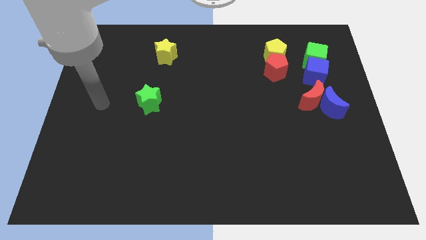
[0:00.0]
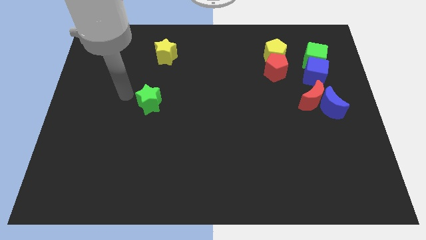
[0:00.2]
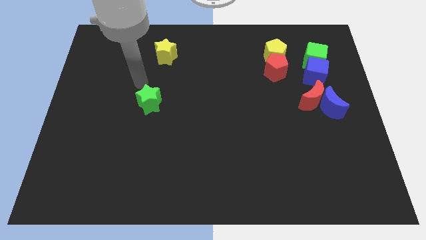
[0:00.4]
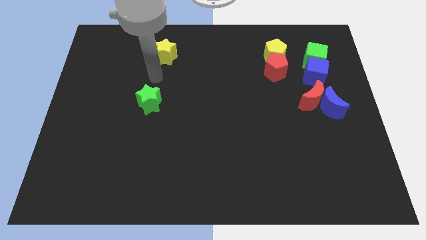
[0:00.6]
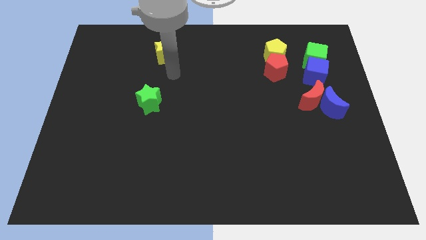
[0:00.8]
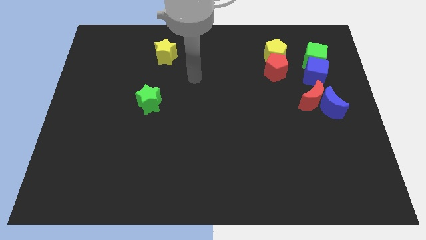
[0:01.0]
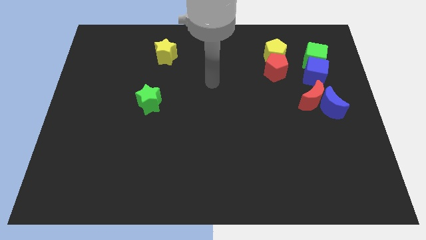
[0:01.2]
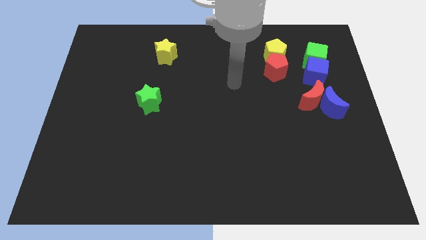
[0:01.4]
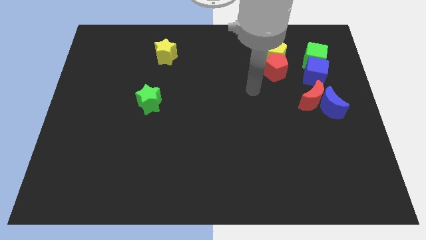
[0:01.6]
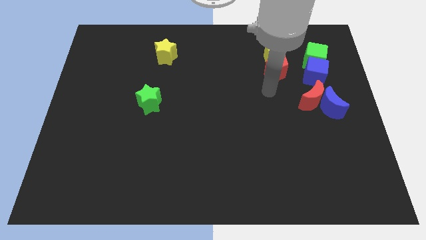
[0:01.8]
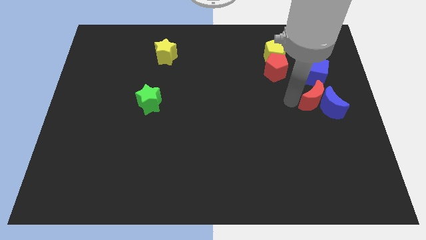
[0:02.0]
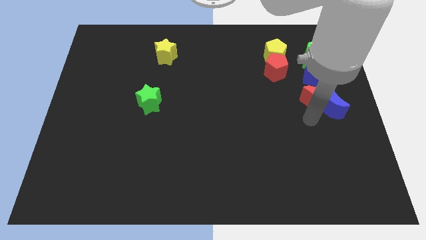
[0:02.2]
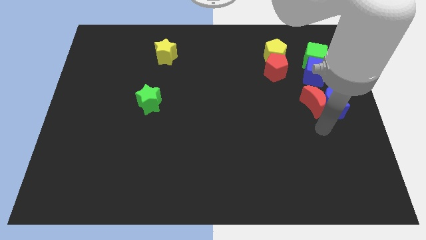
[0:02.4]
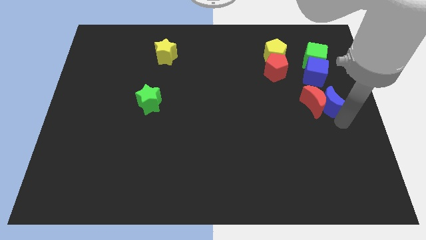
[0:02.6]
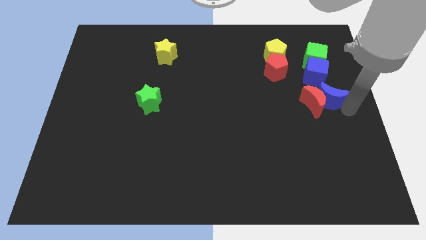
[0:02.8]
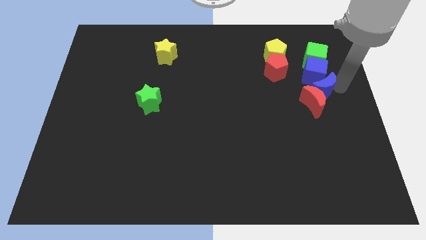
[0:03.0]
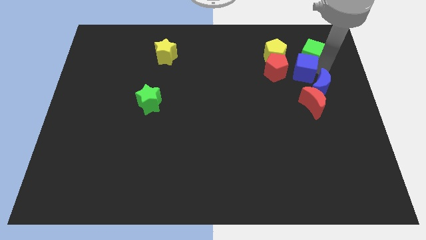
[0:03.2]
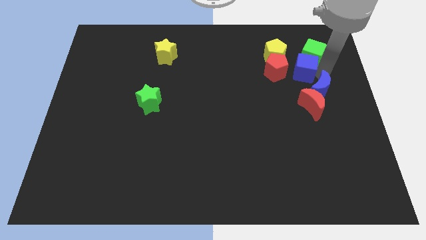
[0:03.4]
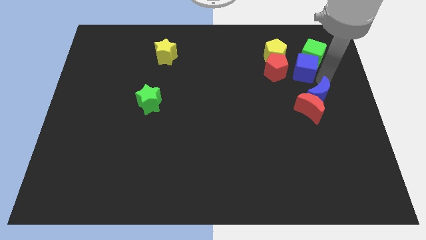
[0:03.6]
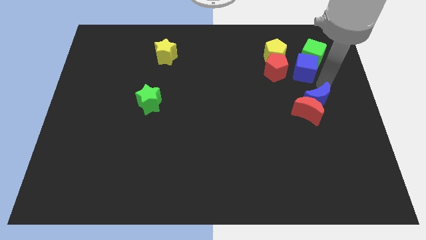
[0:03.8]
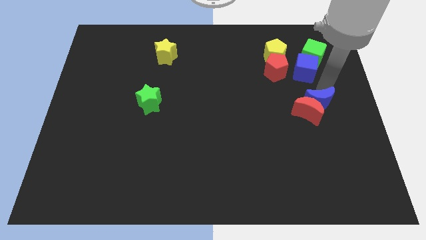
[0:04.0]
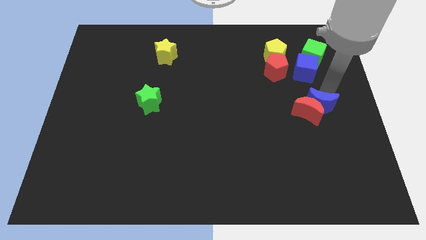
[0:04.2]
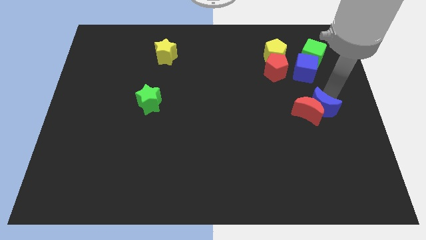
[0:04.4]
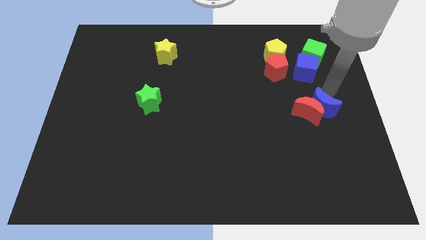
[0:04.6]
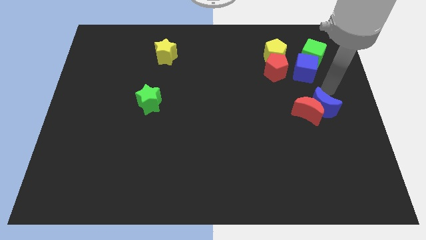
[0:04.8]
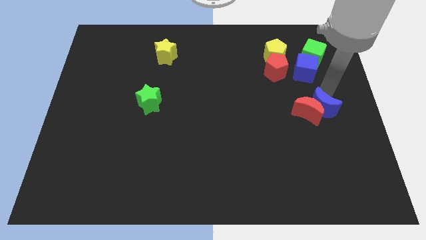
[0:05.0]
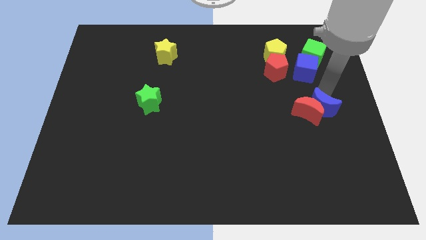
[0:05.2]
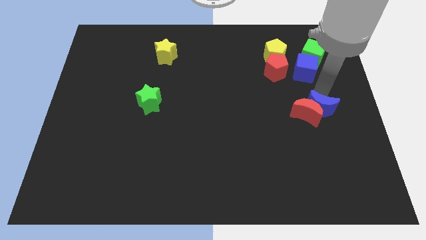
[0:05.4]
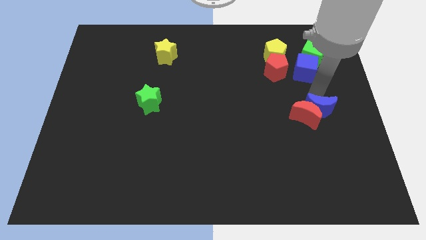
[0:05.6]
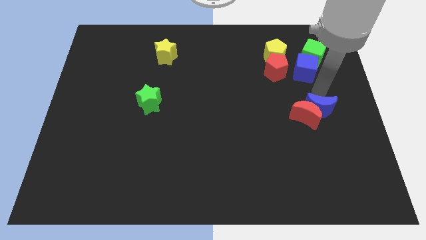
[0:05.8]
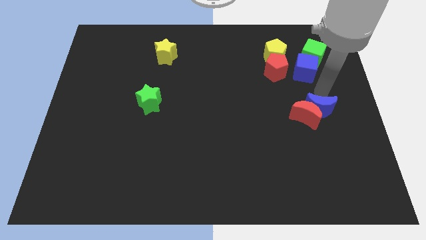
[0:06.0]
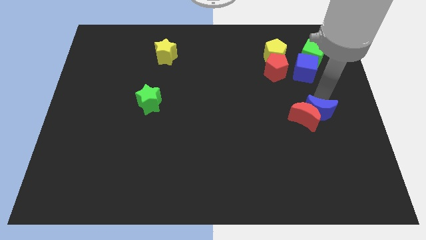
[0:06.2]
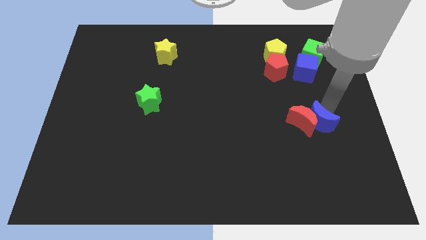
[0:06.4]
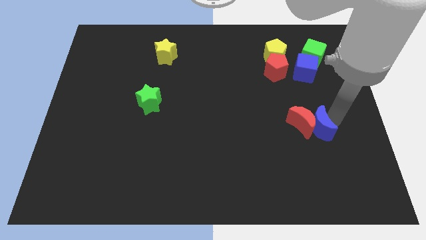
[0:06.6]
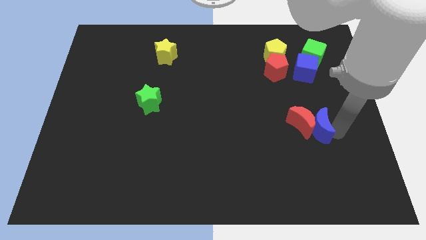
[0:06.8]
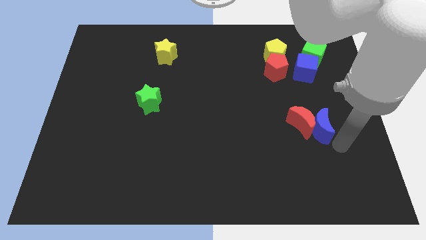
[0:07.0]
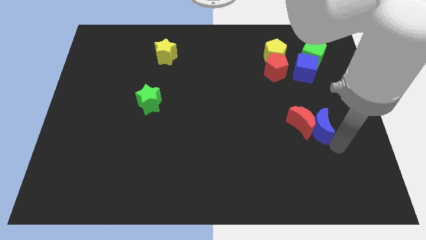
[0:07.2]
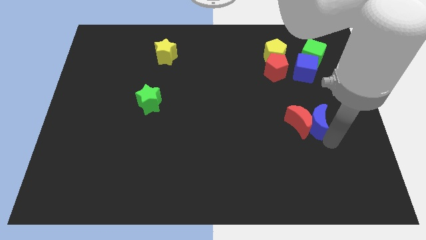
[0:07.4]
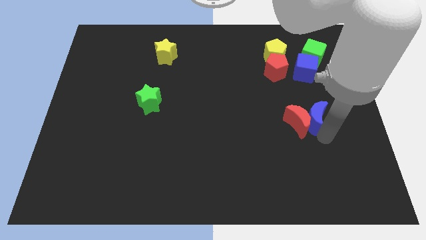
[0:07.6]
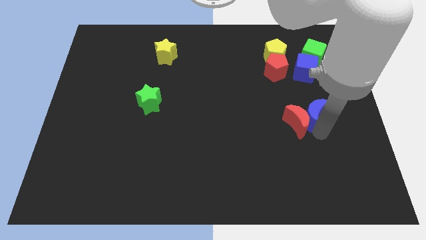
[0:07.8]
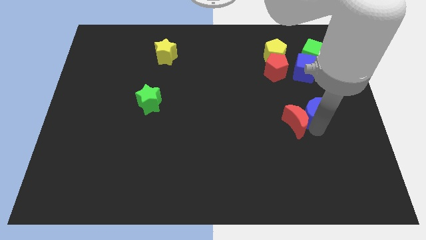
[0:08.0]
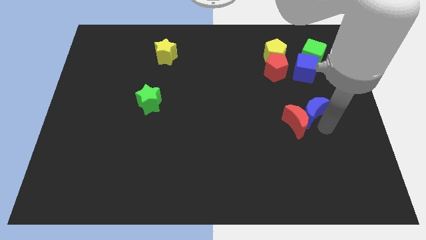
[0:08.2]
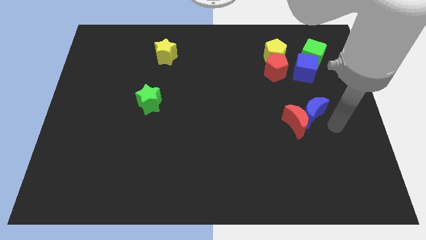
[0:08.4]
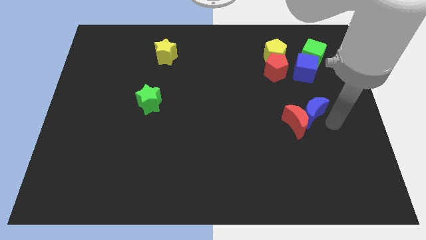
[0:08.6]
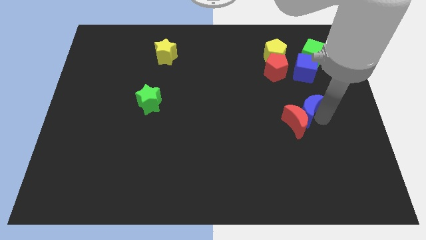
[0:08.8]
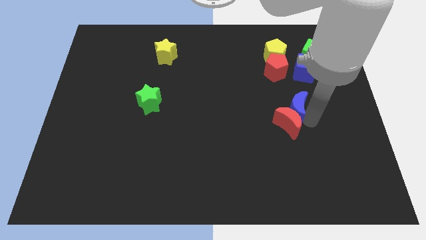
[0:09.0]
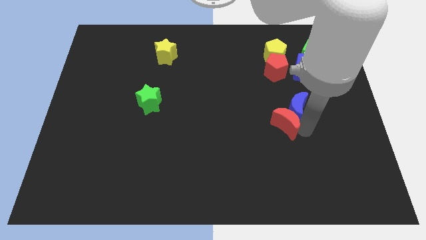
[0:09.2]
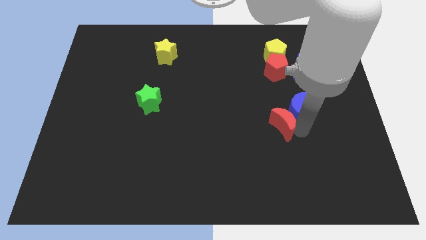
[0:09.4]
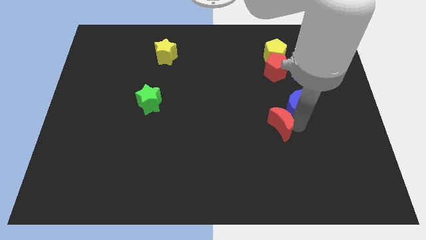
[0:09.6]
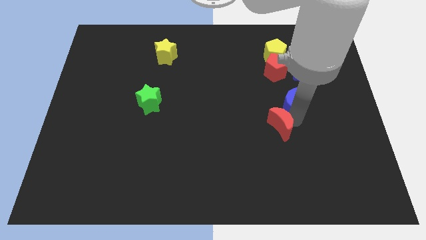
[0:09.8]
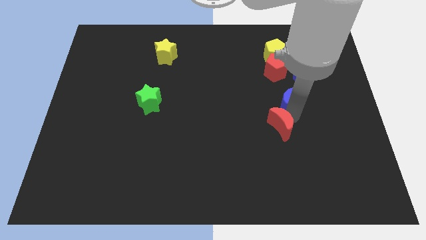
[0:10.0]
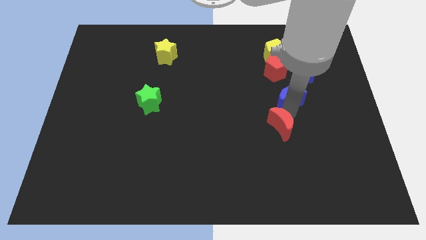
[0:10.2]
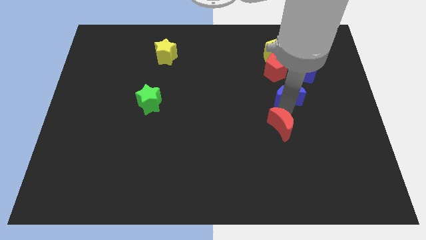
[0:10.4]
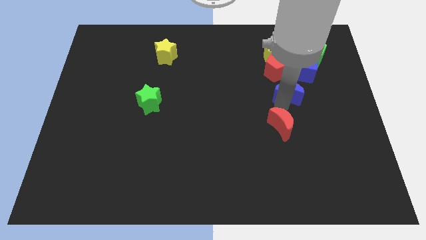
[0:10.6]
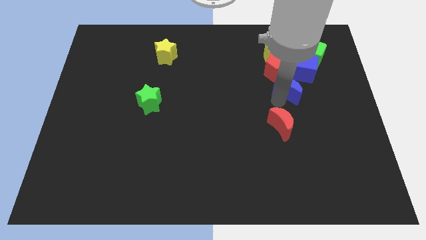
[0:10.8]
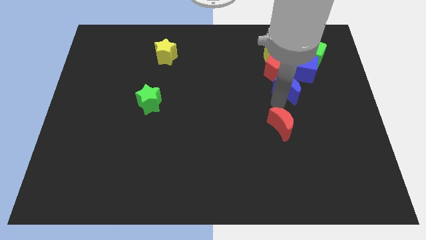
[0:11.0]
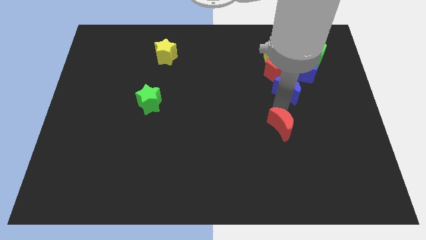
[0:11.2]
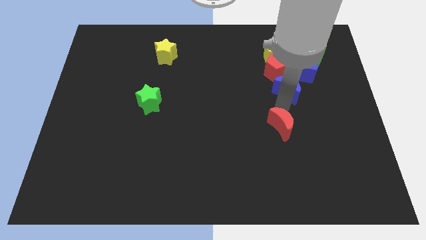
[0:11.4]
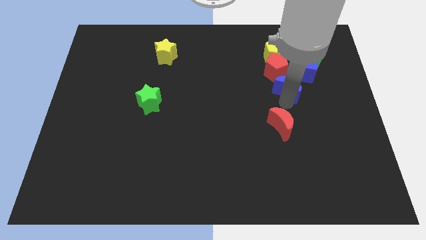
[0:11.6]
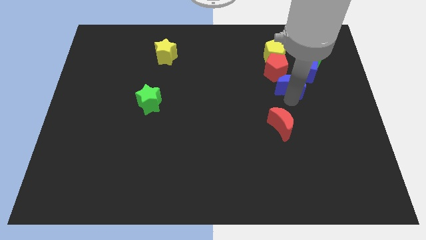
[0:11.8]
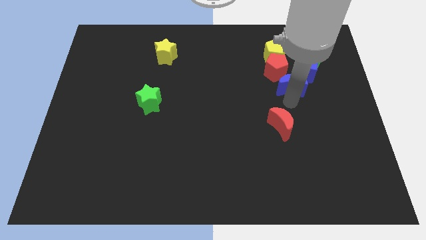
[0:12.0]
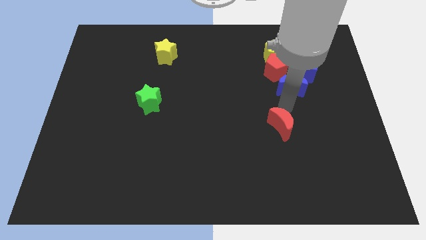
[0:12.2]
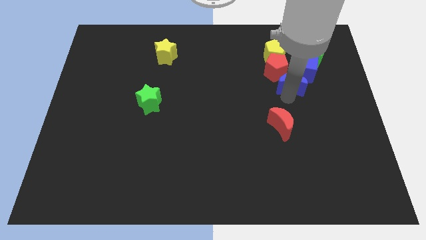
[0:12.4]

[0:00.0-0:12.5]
put the blue moon to the bottom left of the green cube

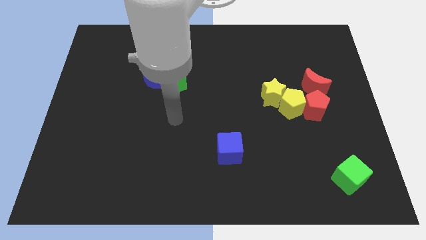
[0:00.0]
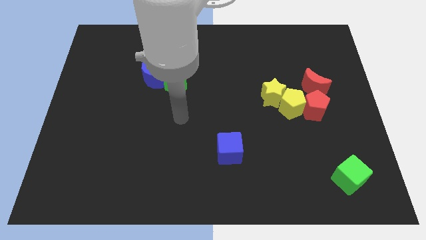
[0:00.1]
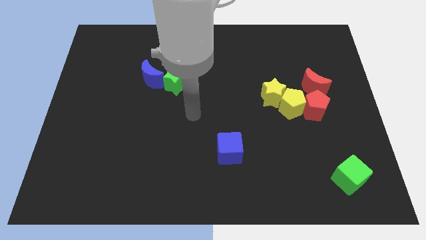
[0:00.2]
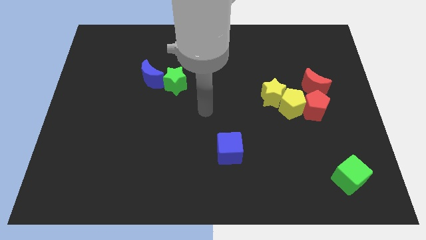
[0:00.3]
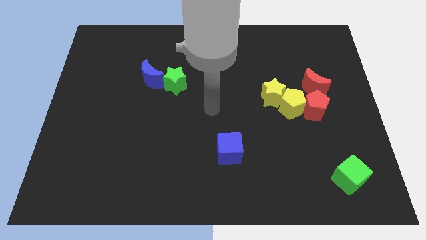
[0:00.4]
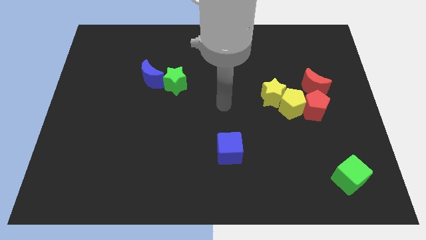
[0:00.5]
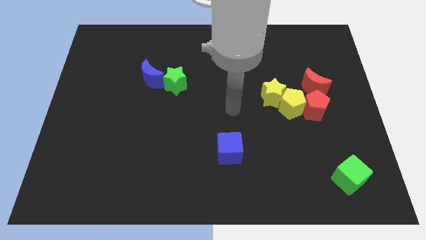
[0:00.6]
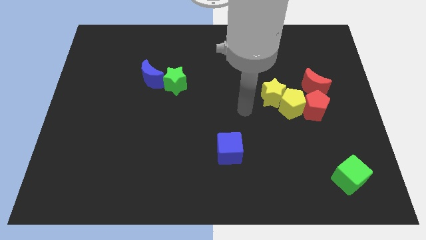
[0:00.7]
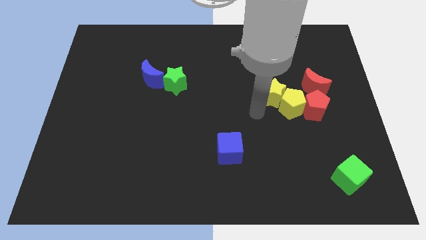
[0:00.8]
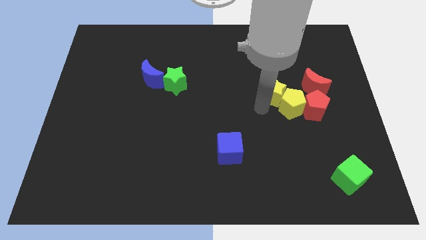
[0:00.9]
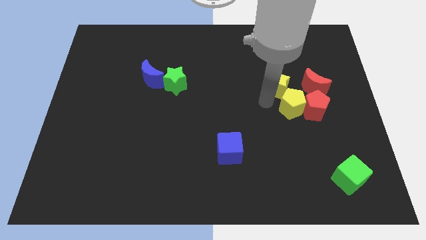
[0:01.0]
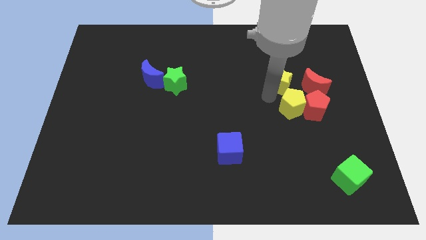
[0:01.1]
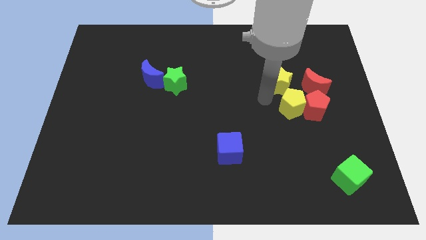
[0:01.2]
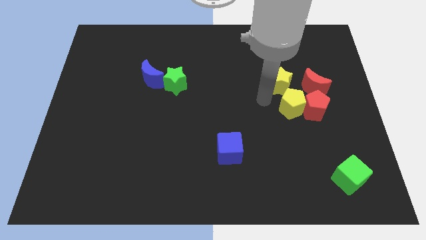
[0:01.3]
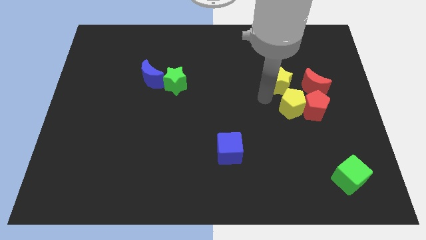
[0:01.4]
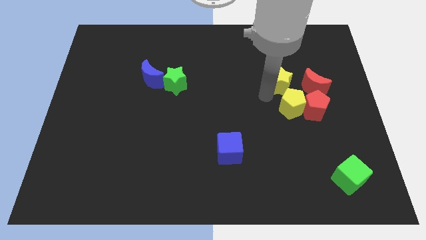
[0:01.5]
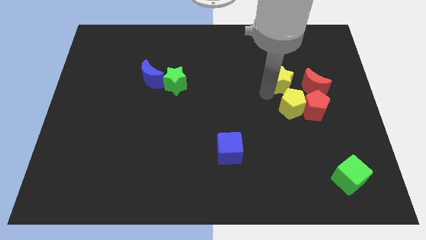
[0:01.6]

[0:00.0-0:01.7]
put the yellow star to the top left of the red moon
